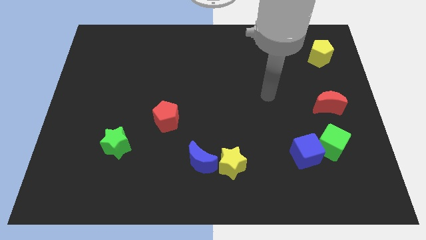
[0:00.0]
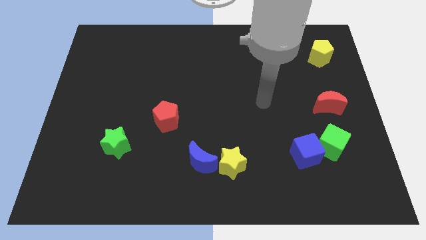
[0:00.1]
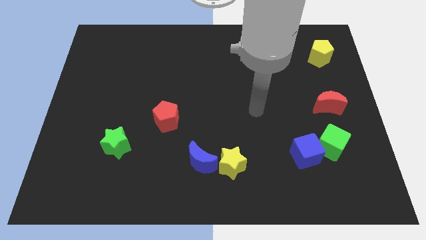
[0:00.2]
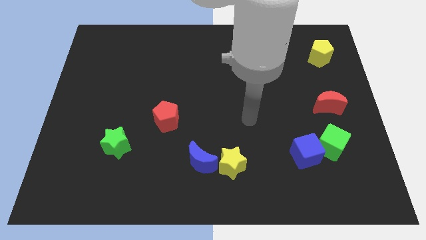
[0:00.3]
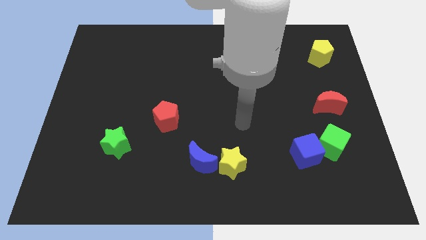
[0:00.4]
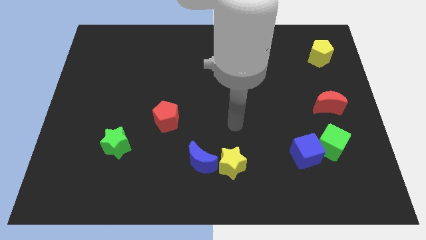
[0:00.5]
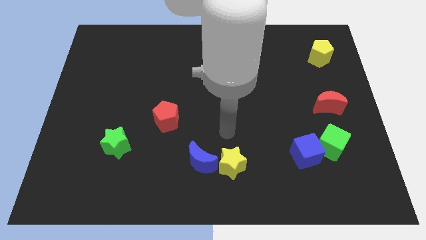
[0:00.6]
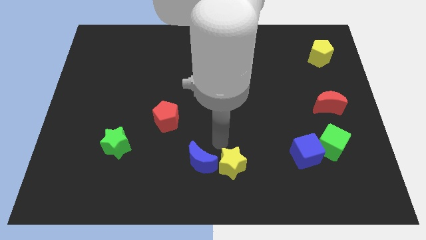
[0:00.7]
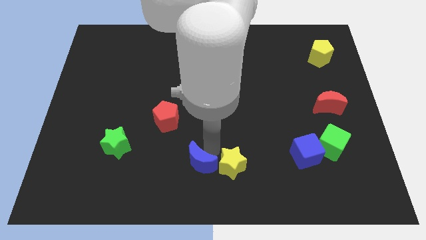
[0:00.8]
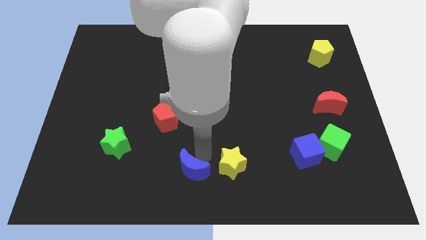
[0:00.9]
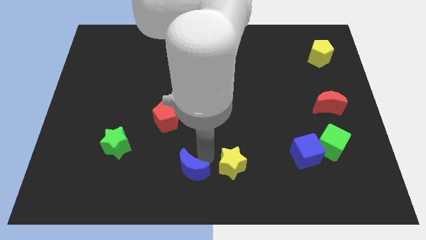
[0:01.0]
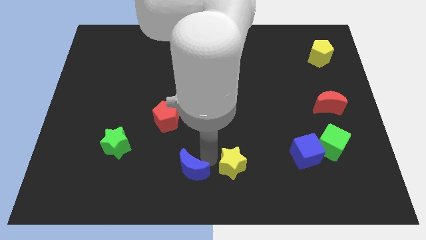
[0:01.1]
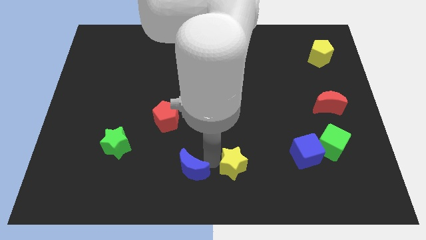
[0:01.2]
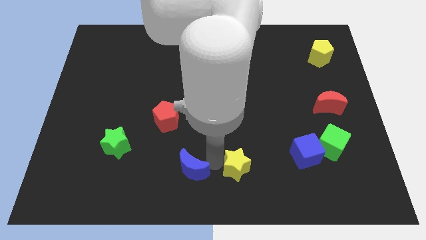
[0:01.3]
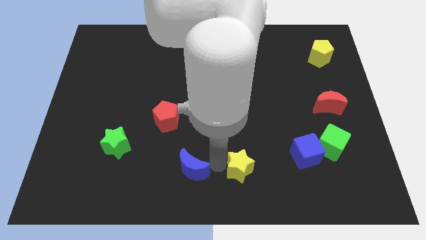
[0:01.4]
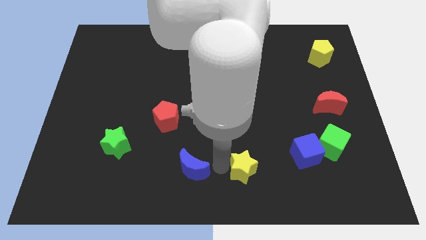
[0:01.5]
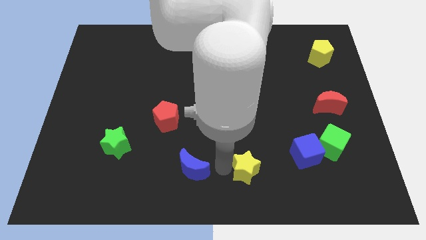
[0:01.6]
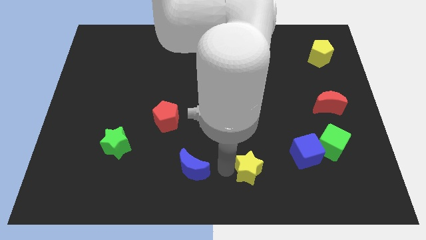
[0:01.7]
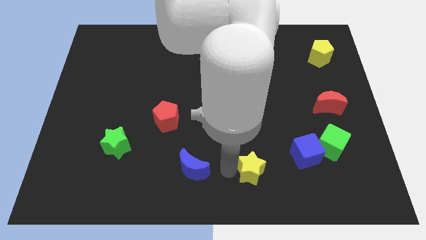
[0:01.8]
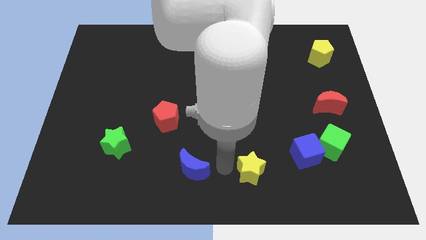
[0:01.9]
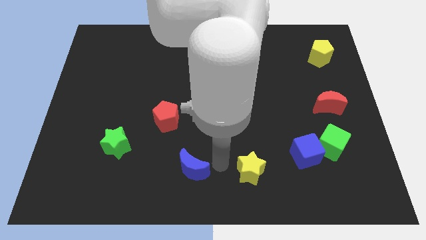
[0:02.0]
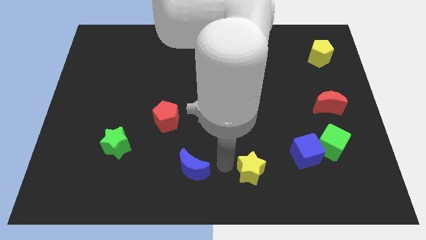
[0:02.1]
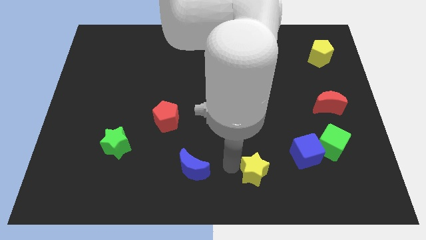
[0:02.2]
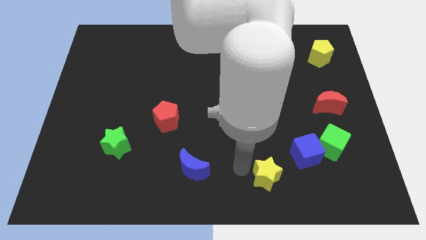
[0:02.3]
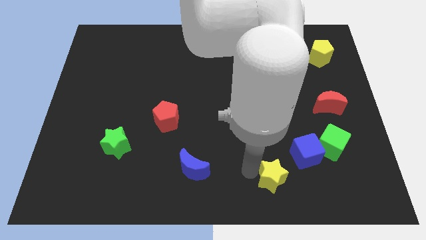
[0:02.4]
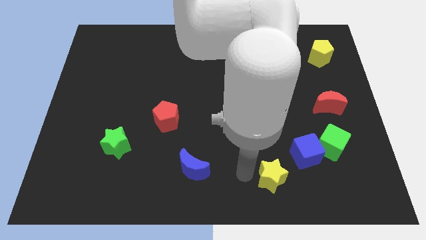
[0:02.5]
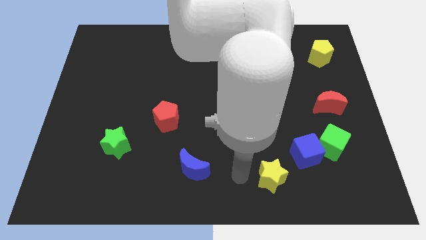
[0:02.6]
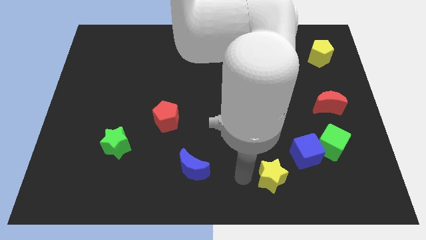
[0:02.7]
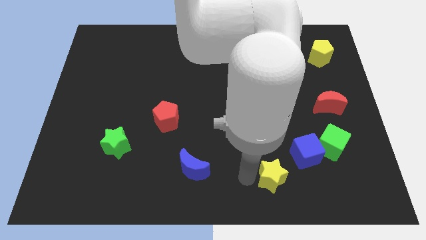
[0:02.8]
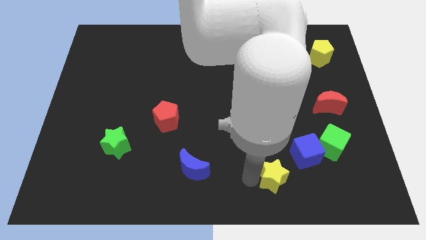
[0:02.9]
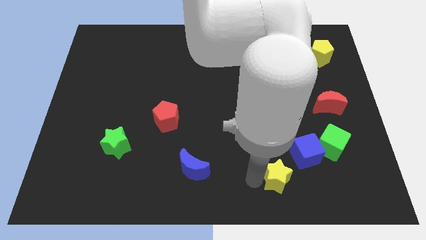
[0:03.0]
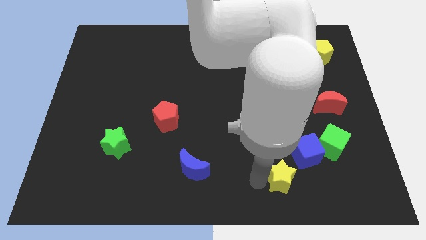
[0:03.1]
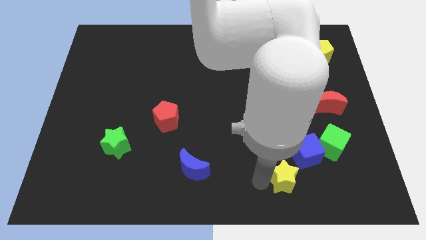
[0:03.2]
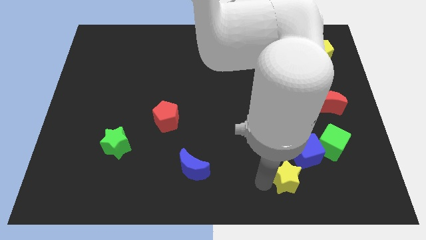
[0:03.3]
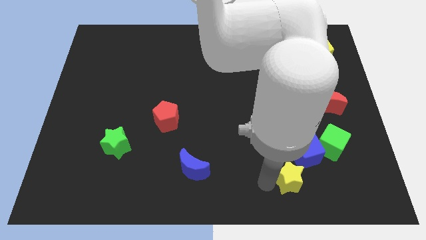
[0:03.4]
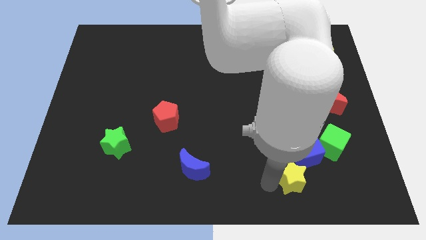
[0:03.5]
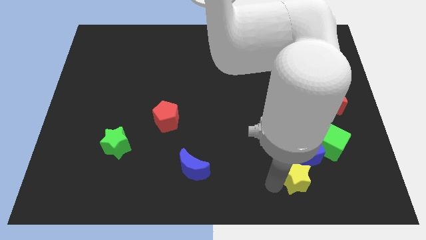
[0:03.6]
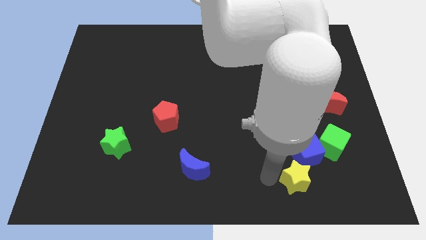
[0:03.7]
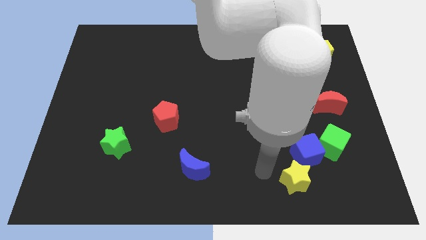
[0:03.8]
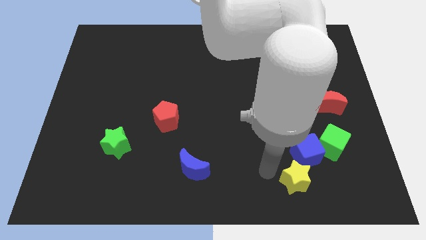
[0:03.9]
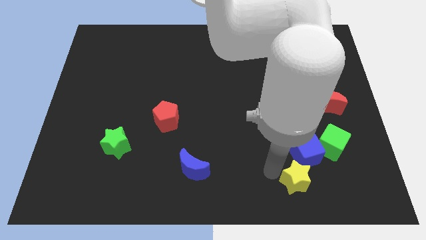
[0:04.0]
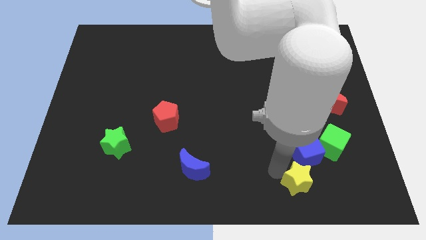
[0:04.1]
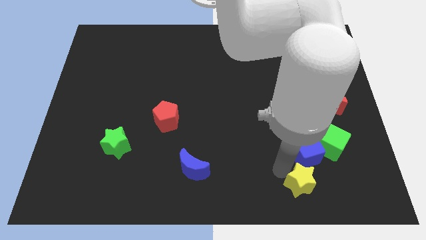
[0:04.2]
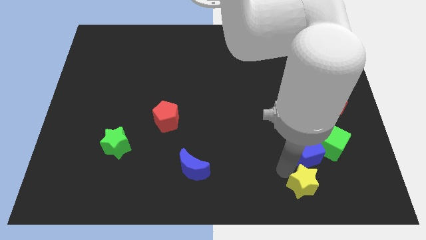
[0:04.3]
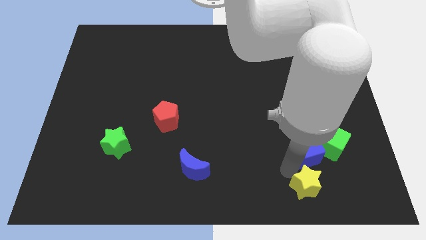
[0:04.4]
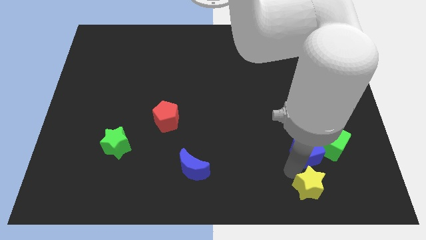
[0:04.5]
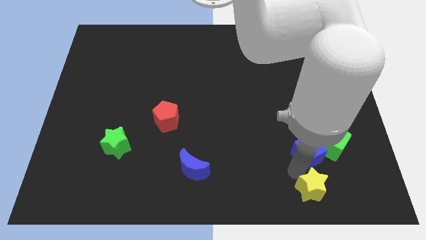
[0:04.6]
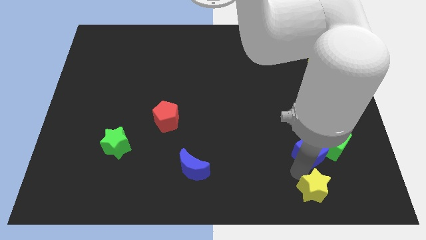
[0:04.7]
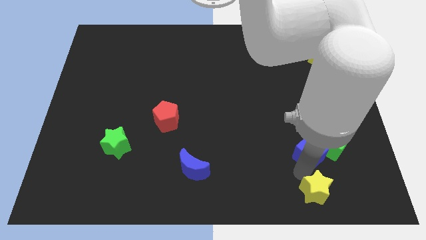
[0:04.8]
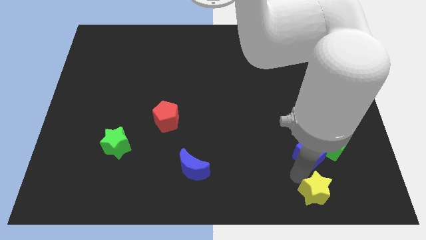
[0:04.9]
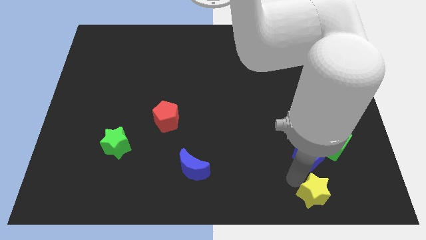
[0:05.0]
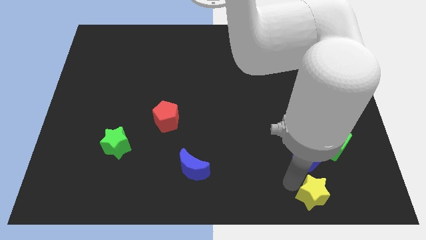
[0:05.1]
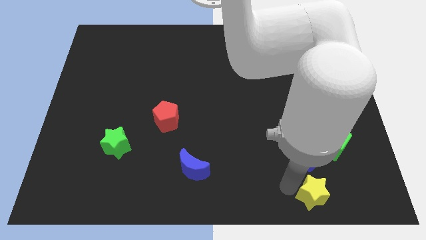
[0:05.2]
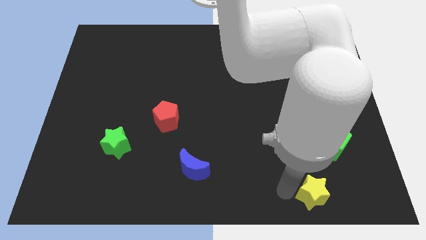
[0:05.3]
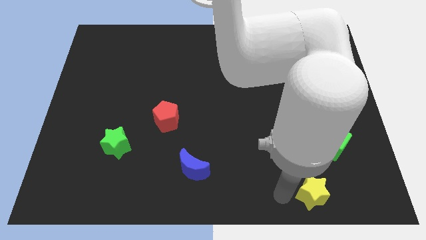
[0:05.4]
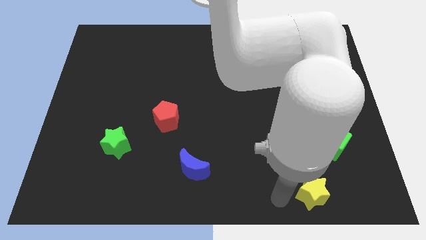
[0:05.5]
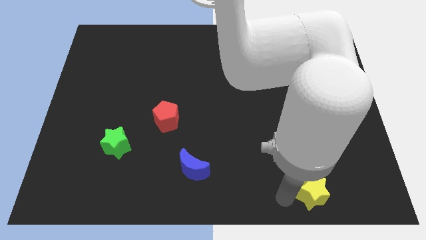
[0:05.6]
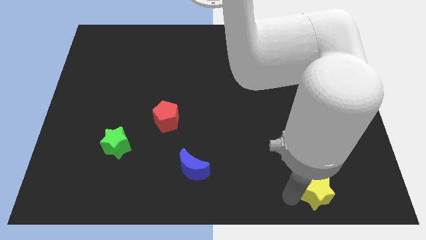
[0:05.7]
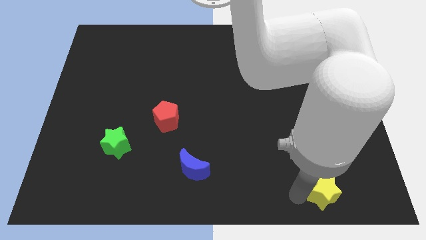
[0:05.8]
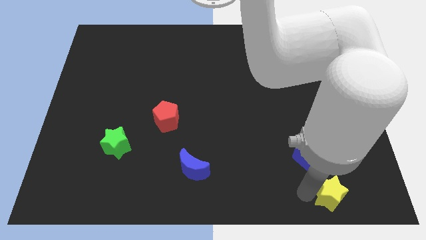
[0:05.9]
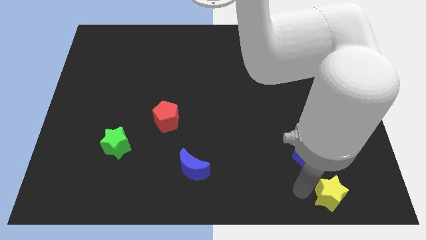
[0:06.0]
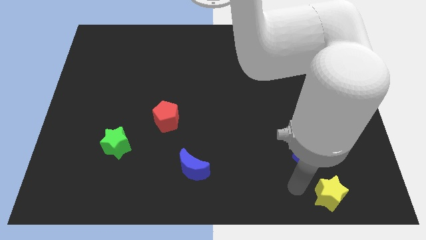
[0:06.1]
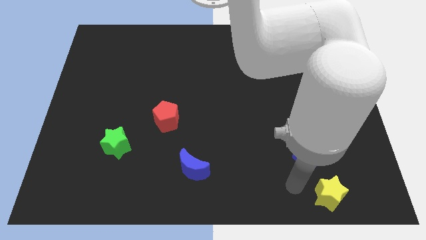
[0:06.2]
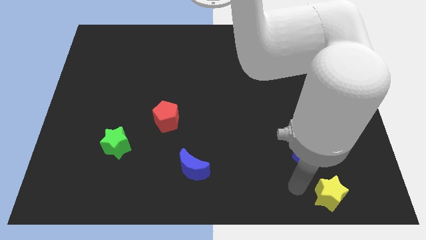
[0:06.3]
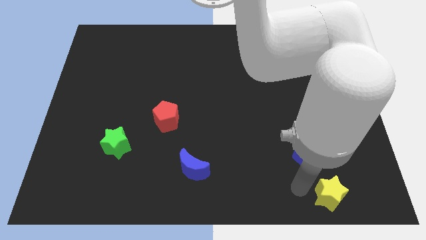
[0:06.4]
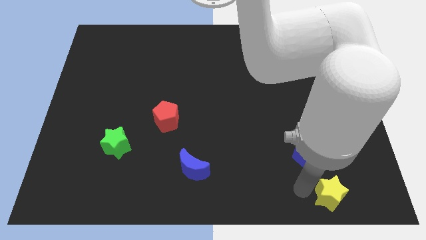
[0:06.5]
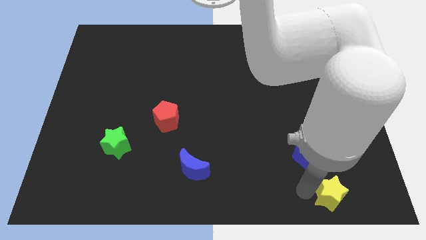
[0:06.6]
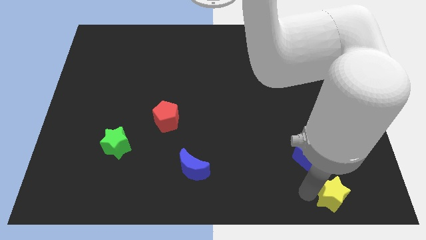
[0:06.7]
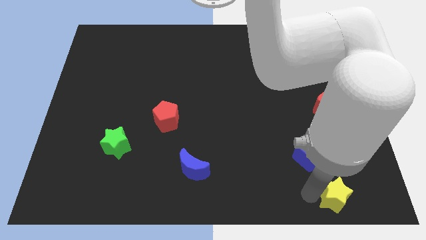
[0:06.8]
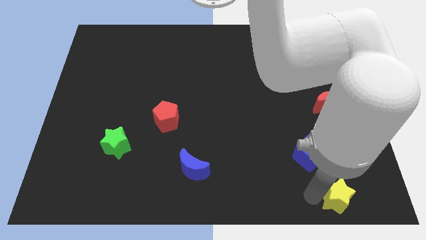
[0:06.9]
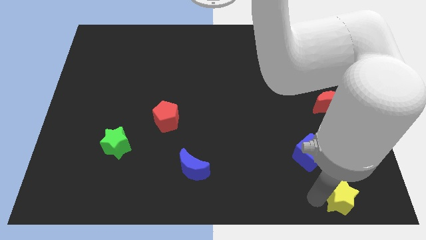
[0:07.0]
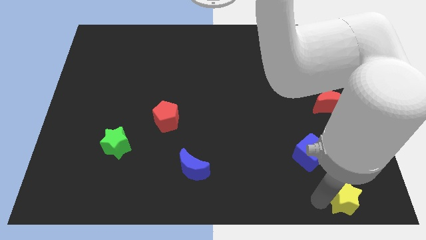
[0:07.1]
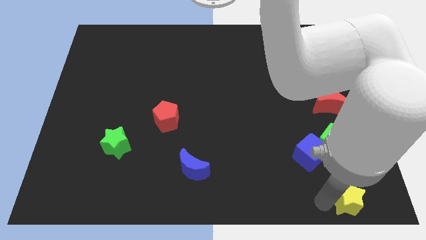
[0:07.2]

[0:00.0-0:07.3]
put the yellow star to the lower right corner
